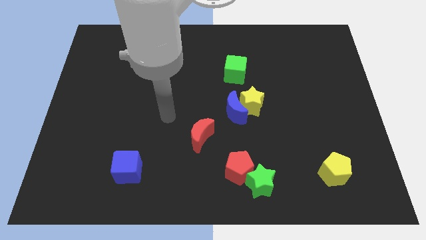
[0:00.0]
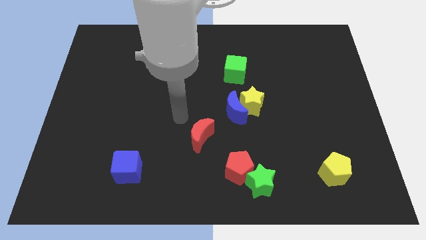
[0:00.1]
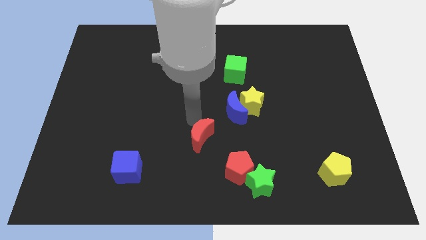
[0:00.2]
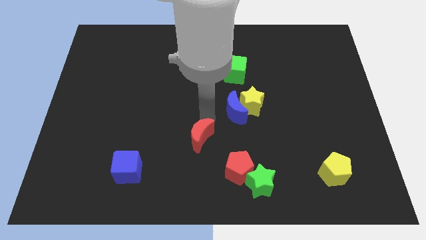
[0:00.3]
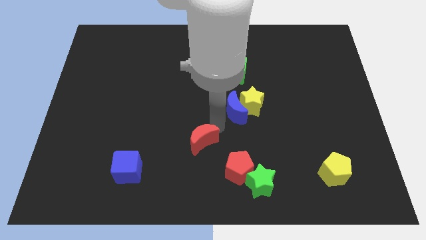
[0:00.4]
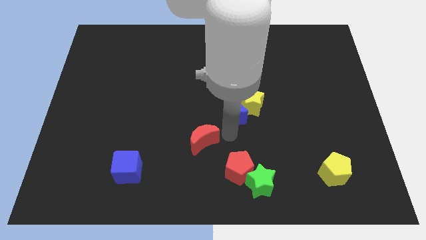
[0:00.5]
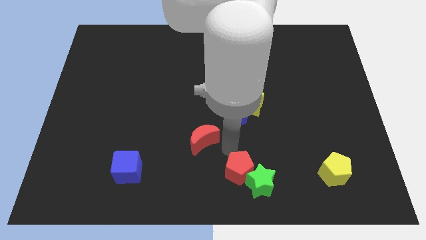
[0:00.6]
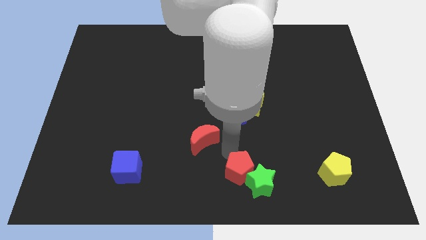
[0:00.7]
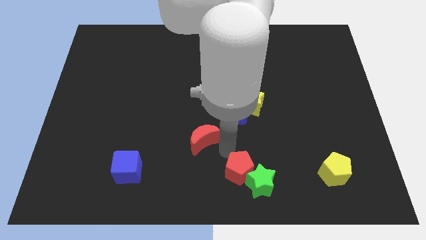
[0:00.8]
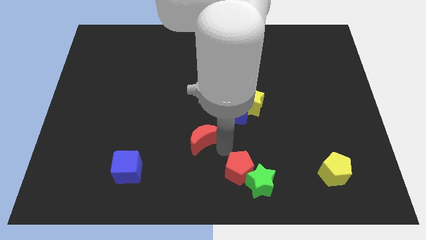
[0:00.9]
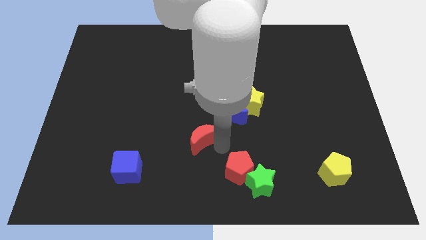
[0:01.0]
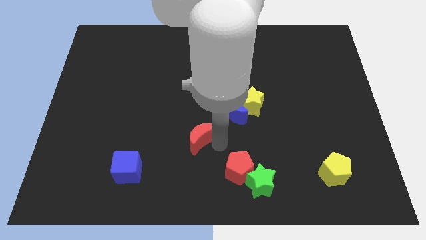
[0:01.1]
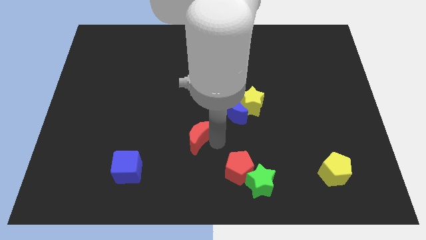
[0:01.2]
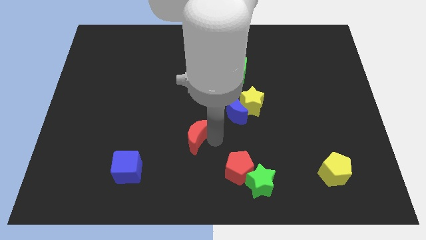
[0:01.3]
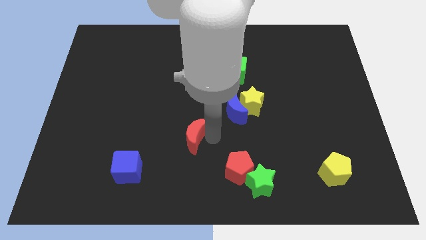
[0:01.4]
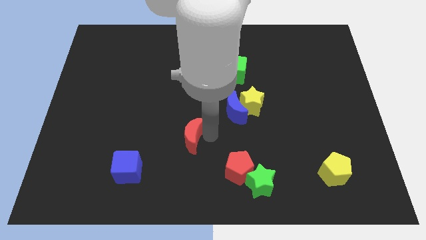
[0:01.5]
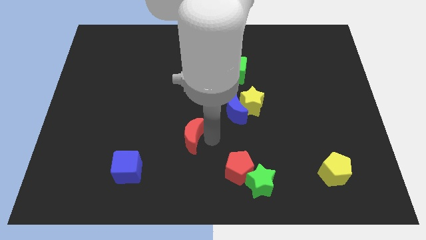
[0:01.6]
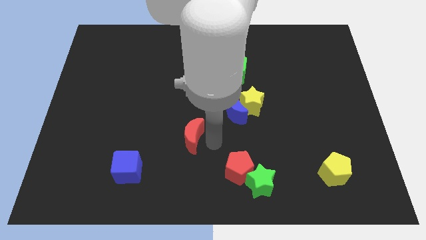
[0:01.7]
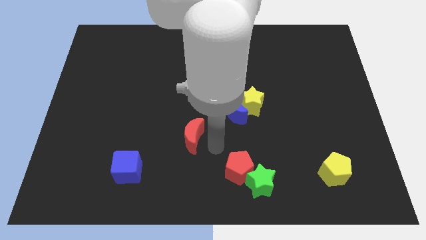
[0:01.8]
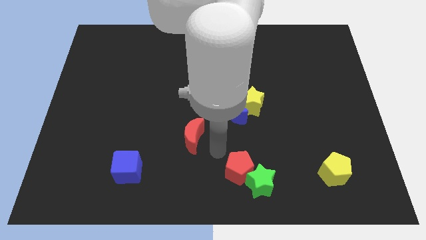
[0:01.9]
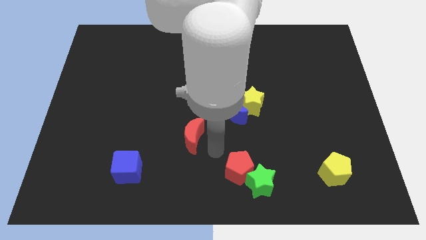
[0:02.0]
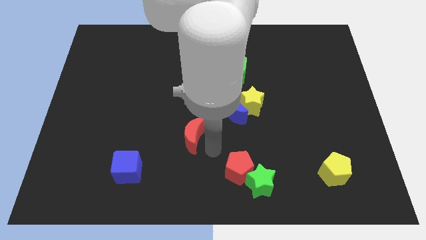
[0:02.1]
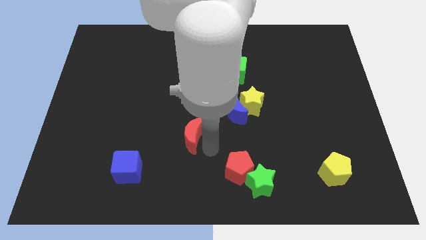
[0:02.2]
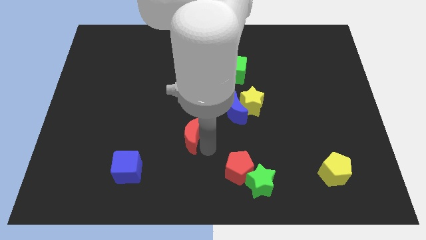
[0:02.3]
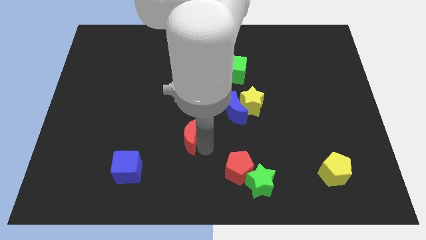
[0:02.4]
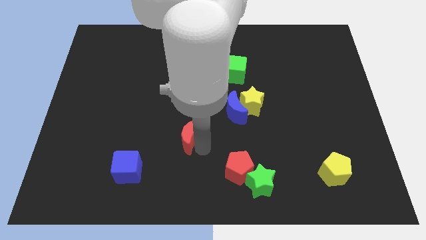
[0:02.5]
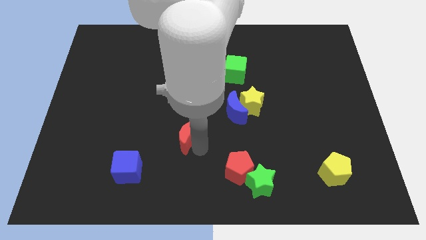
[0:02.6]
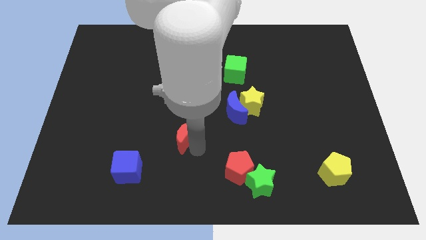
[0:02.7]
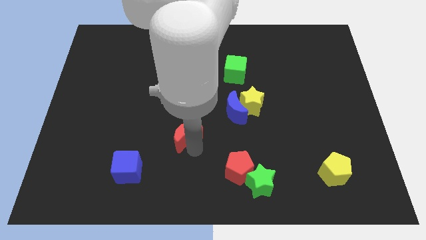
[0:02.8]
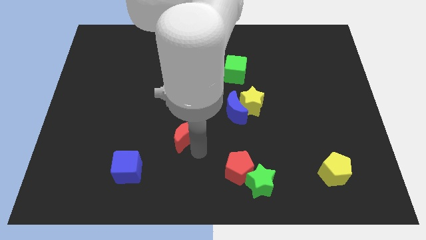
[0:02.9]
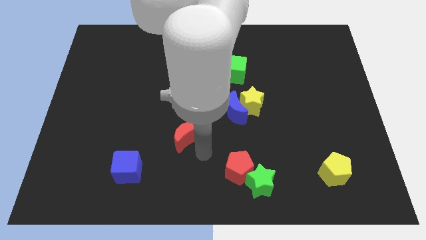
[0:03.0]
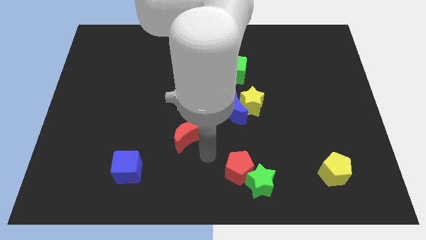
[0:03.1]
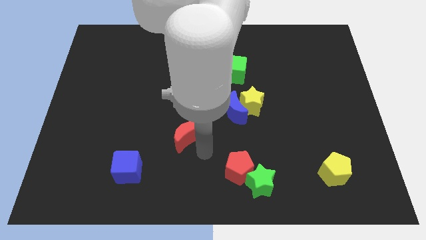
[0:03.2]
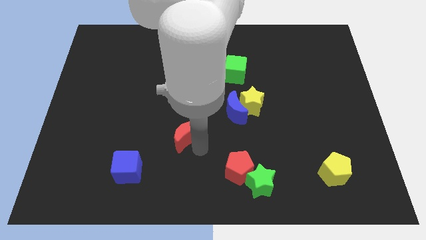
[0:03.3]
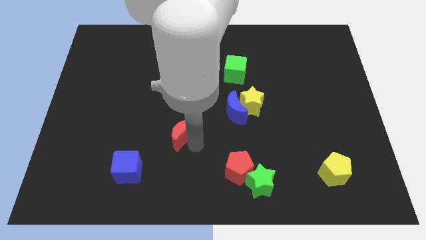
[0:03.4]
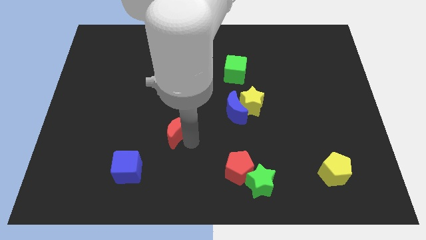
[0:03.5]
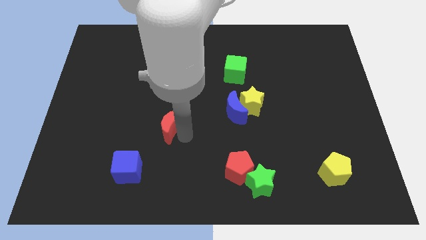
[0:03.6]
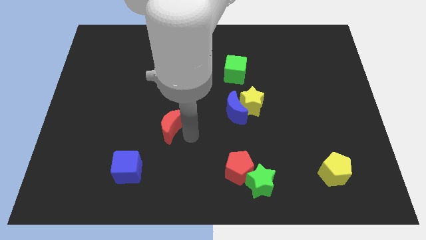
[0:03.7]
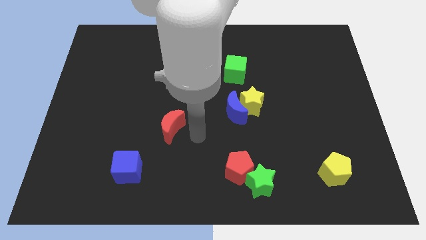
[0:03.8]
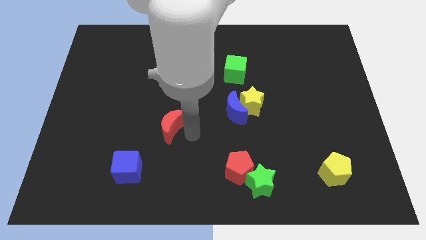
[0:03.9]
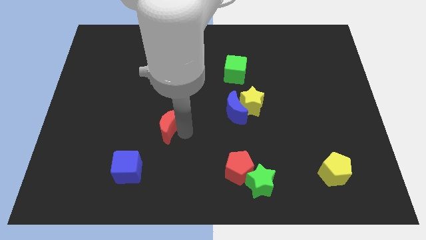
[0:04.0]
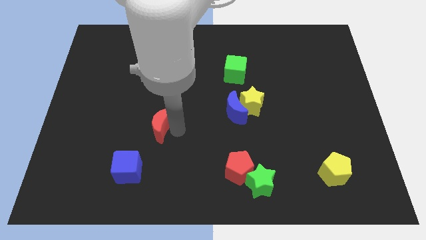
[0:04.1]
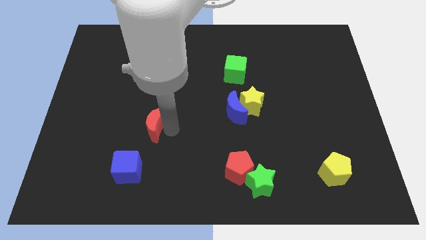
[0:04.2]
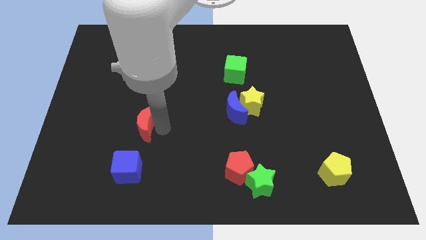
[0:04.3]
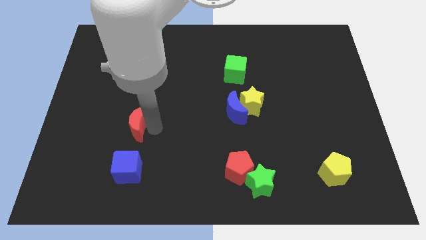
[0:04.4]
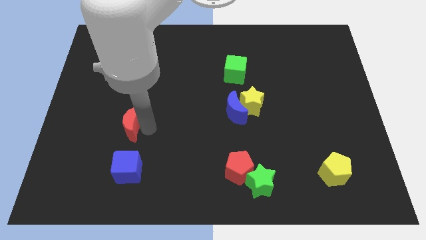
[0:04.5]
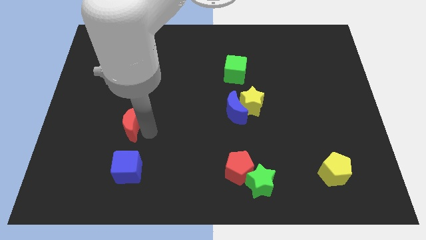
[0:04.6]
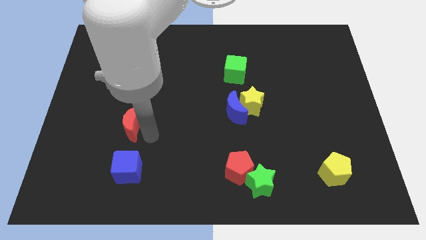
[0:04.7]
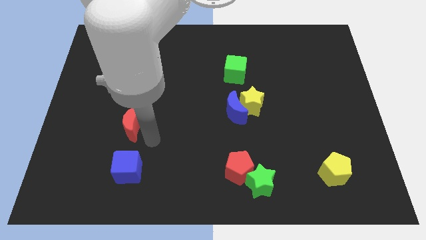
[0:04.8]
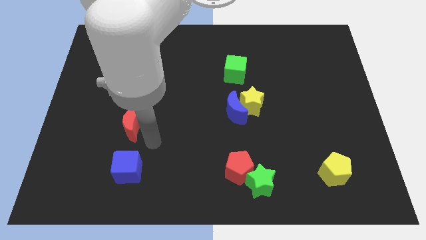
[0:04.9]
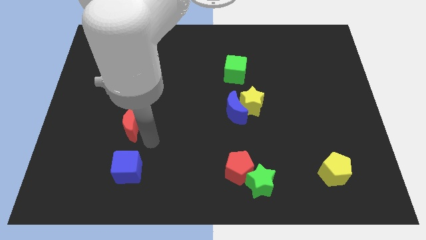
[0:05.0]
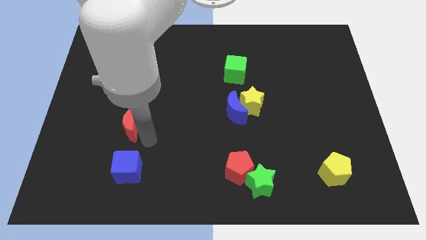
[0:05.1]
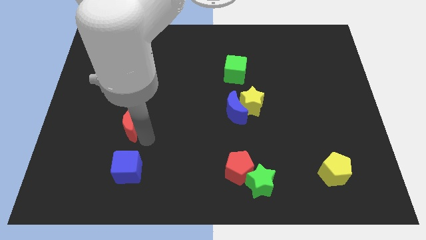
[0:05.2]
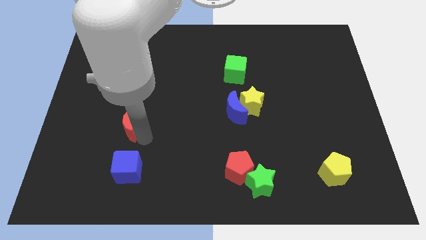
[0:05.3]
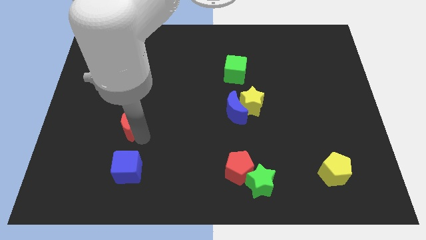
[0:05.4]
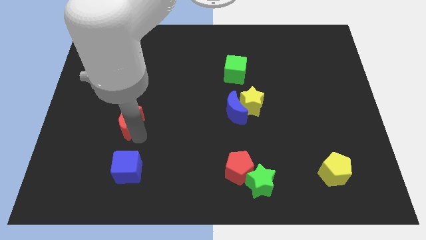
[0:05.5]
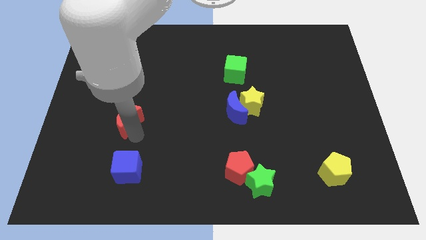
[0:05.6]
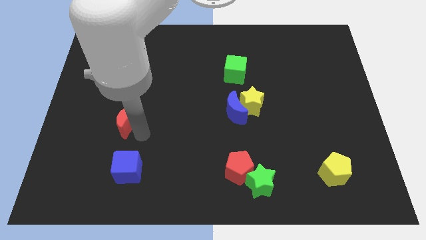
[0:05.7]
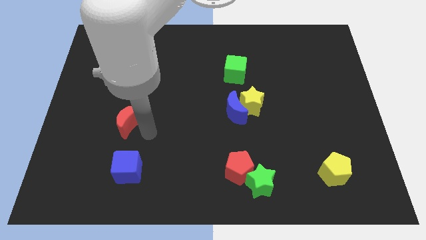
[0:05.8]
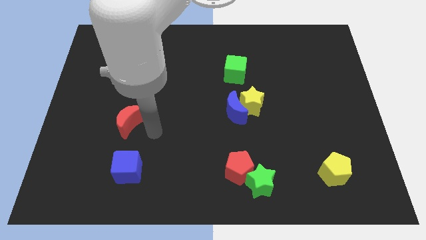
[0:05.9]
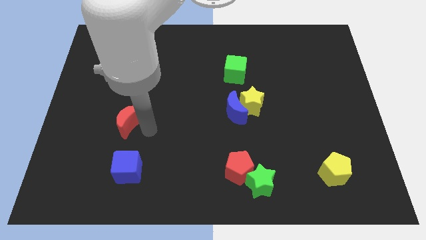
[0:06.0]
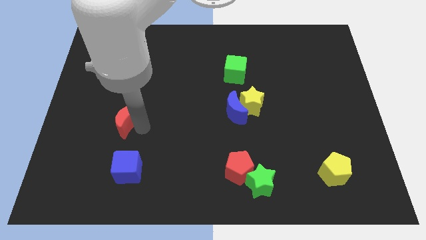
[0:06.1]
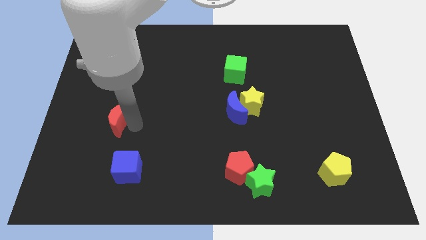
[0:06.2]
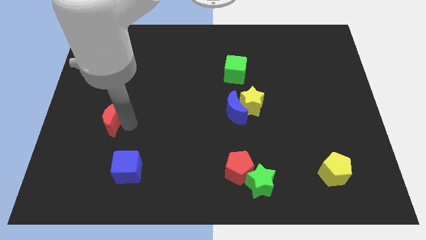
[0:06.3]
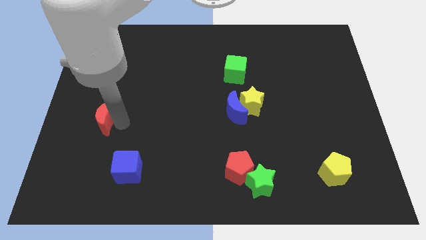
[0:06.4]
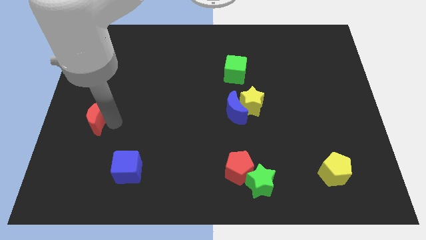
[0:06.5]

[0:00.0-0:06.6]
move the red moon to the left side of the board
